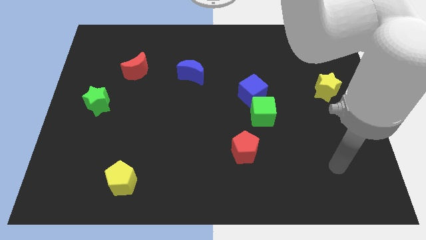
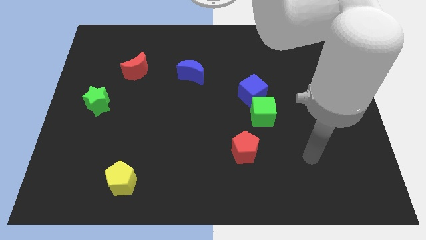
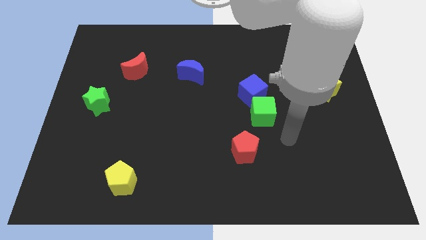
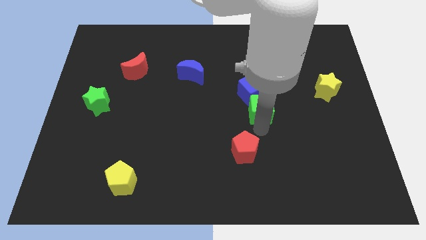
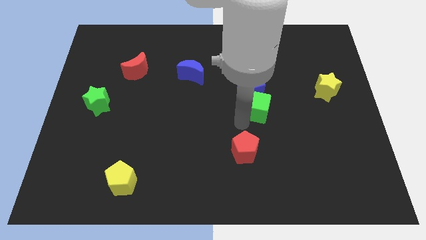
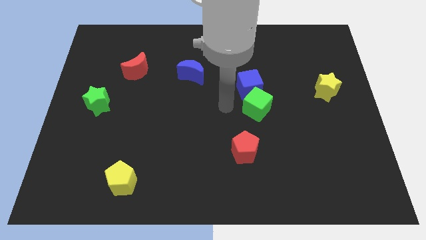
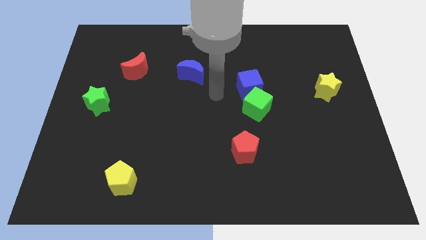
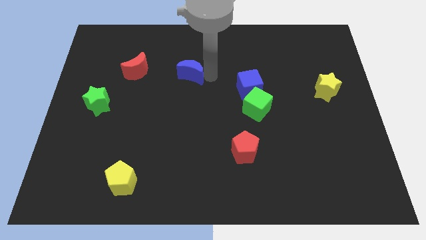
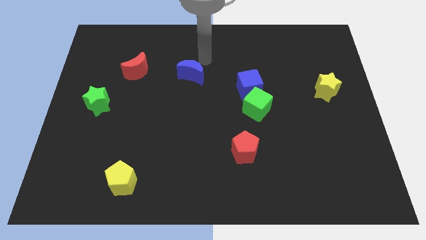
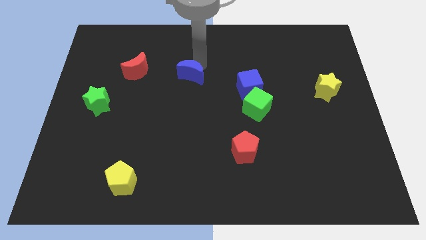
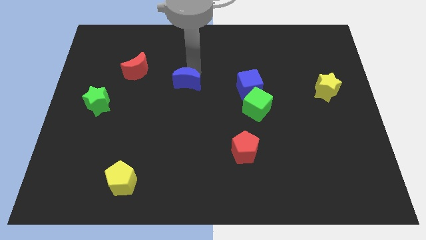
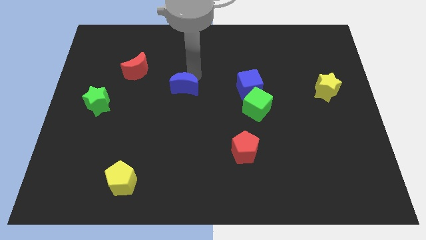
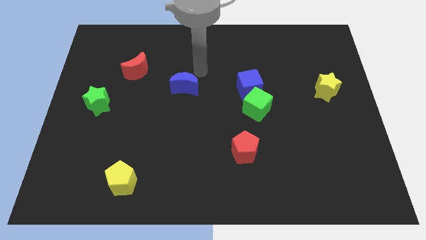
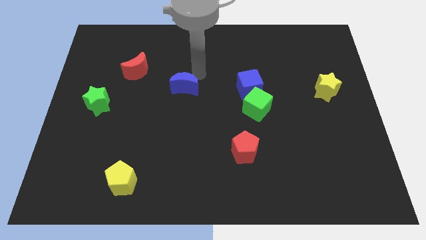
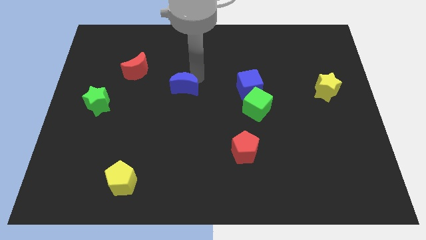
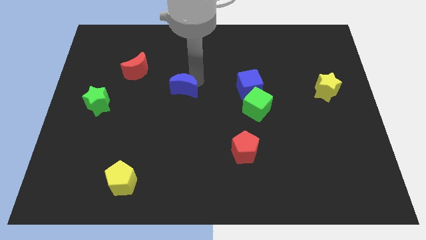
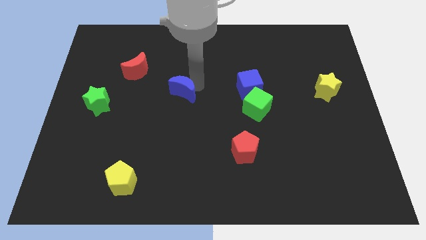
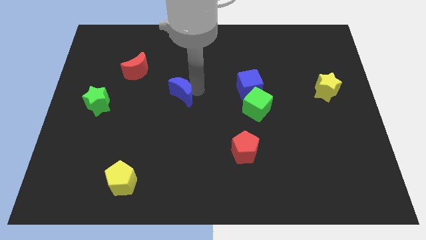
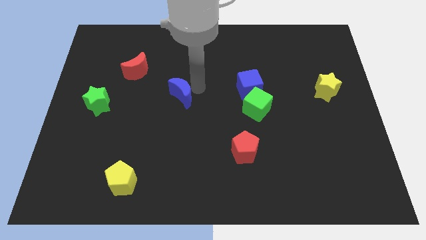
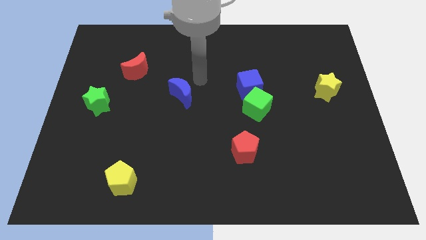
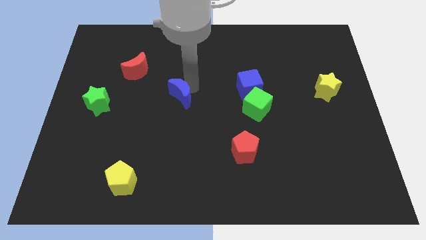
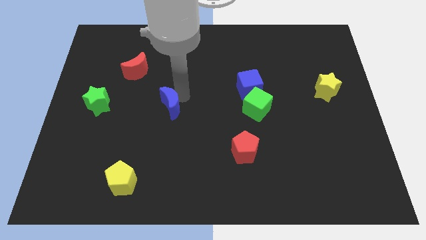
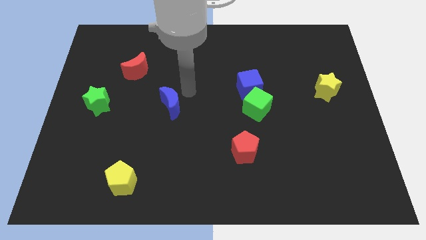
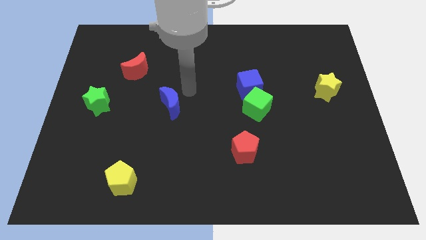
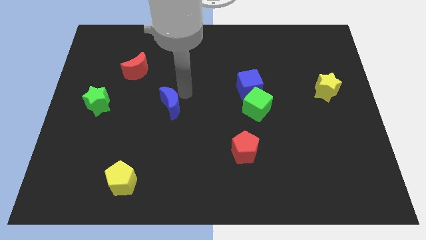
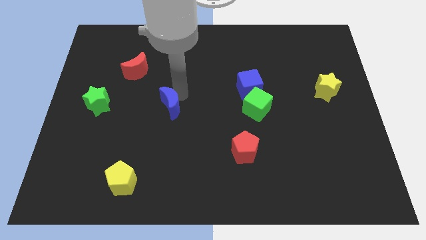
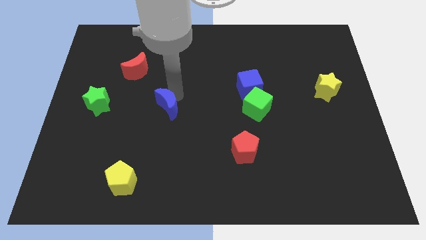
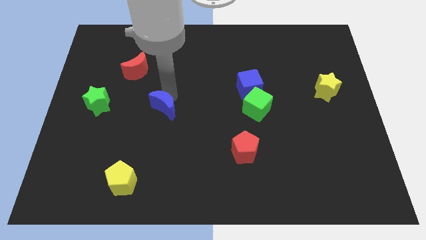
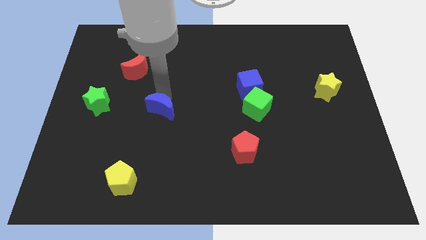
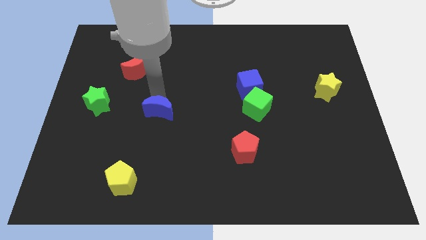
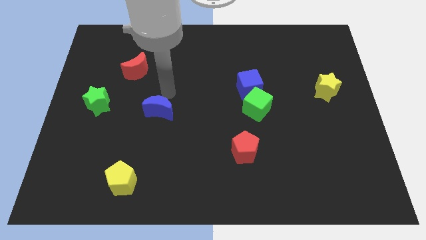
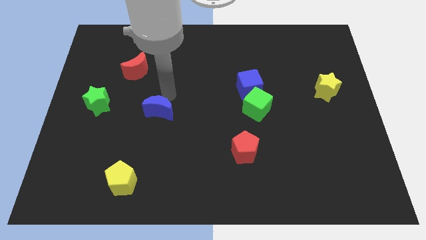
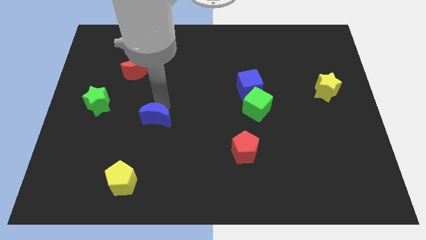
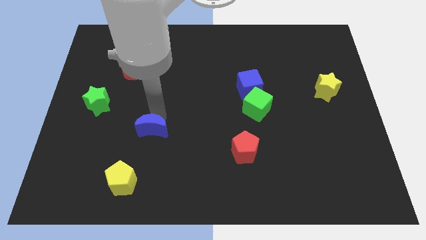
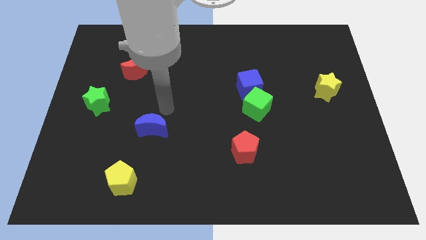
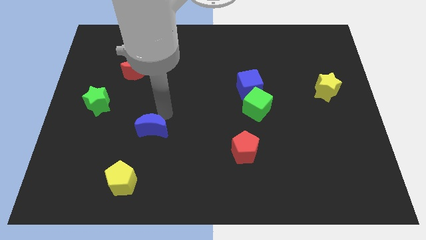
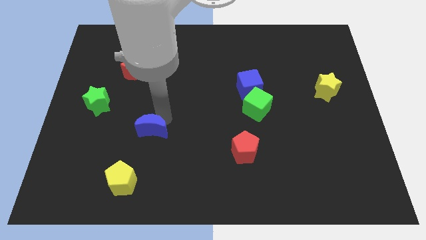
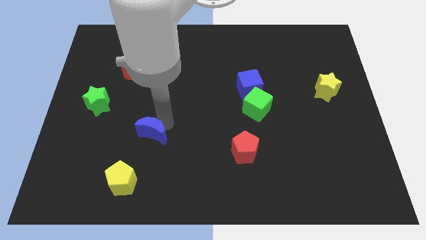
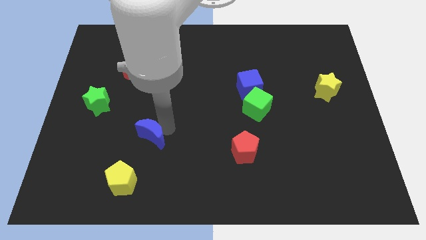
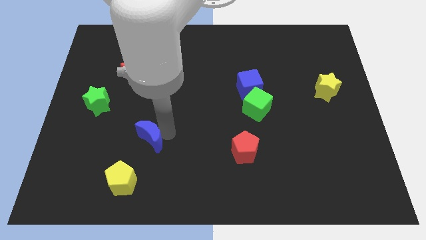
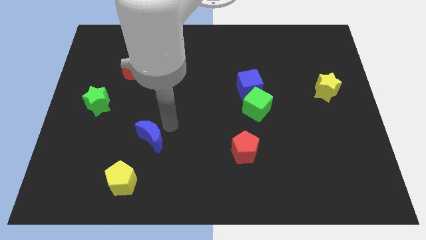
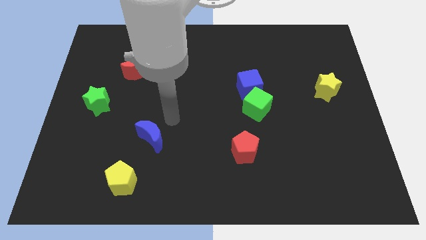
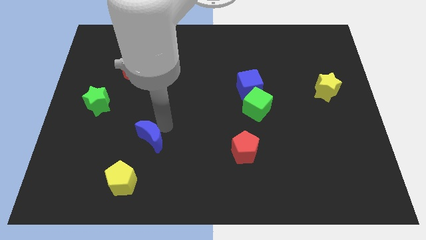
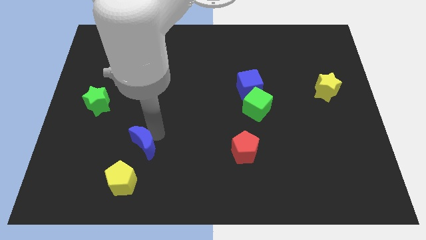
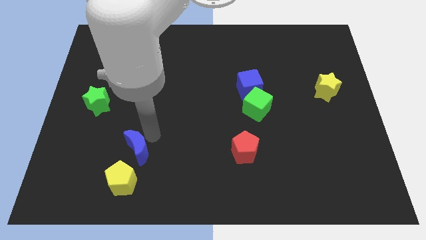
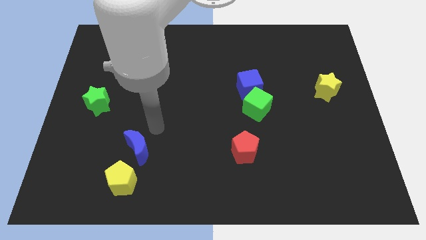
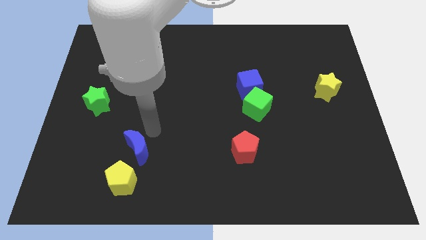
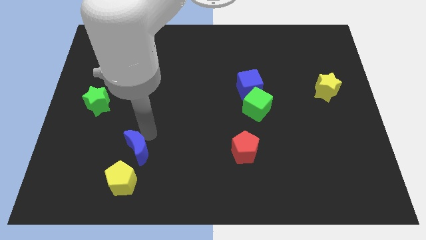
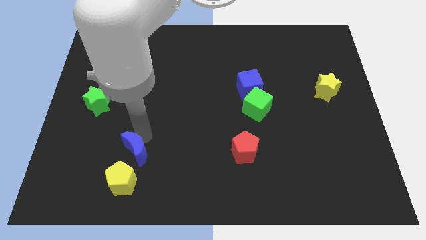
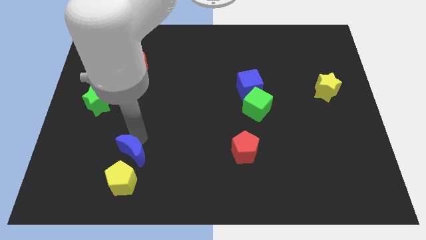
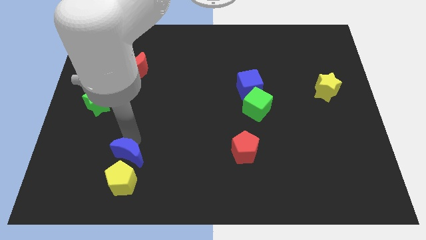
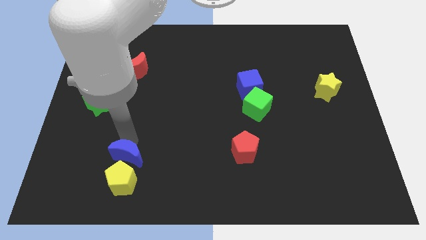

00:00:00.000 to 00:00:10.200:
move the blue moon next to the yellow pentagon

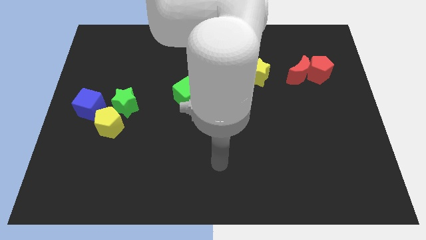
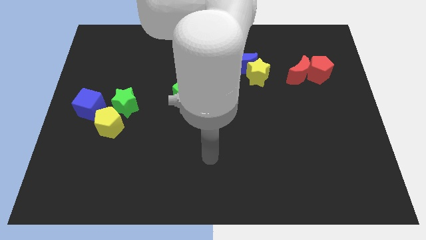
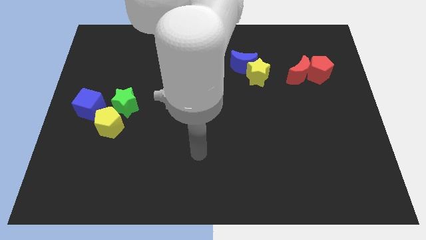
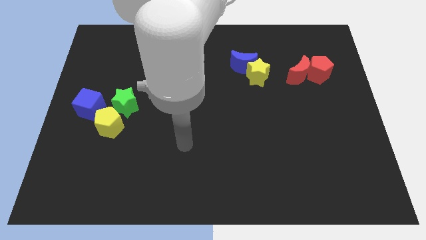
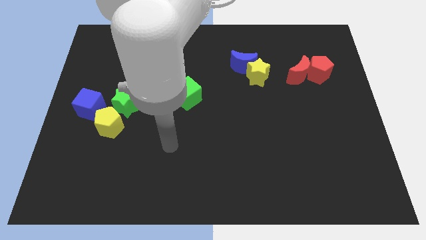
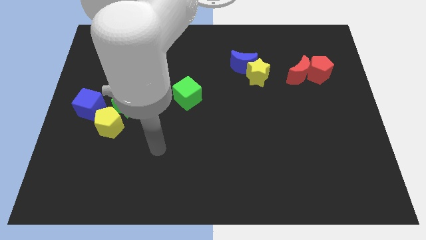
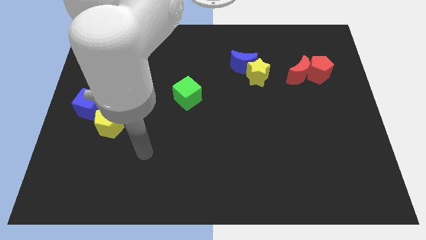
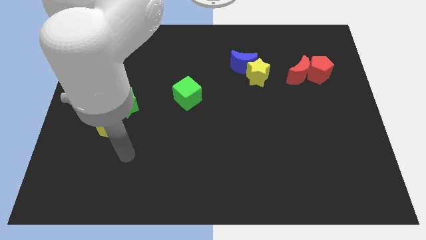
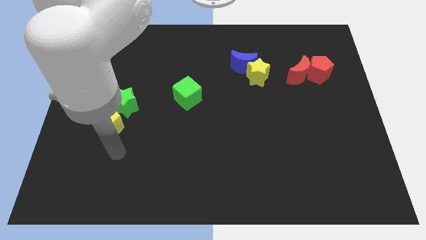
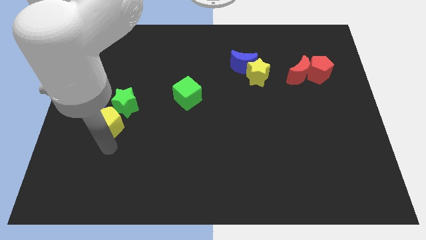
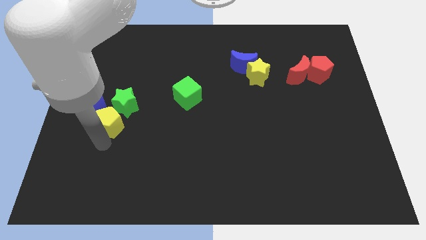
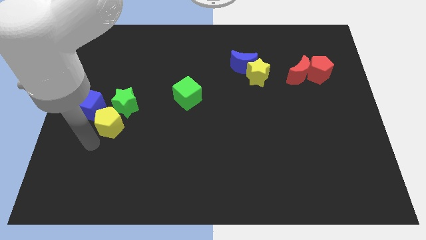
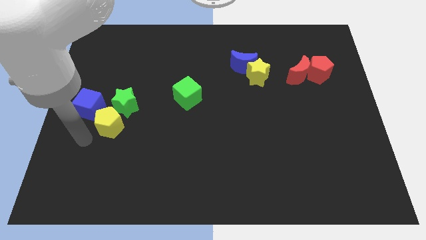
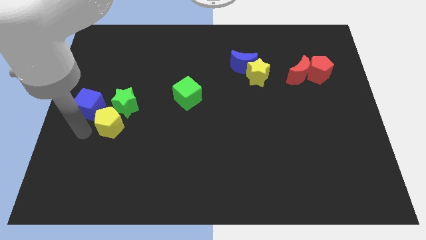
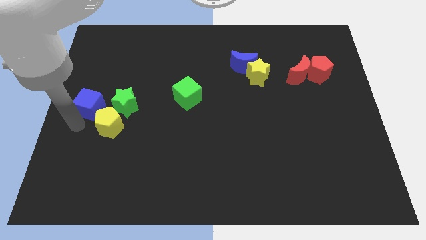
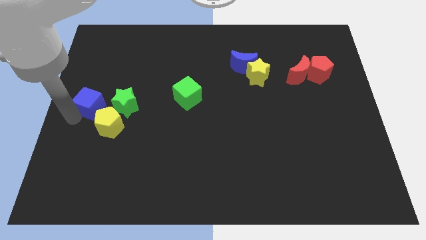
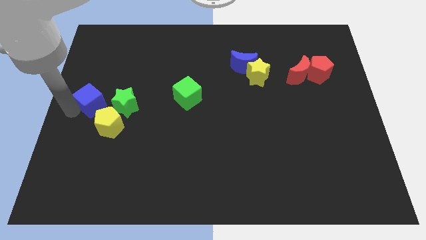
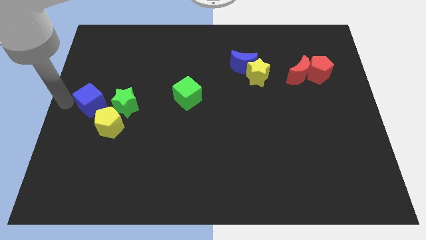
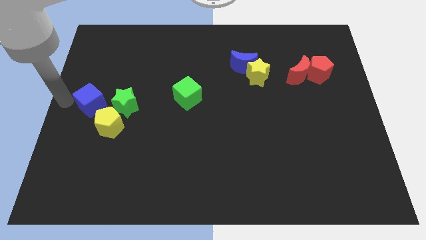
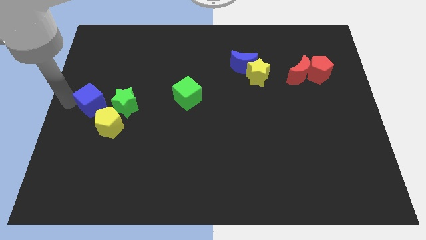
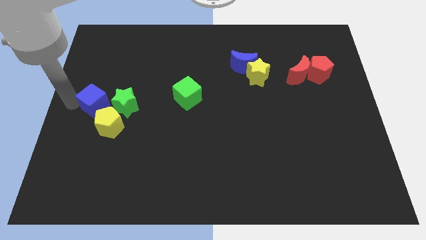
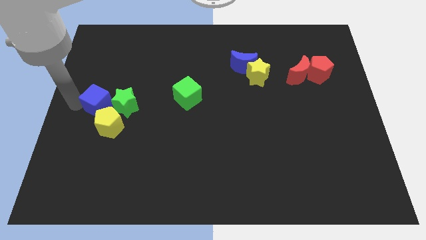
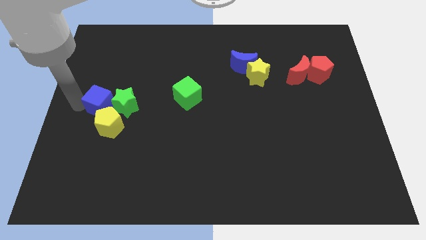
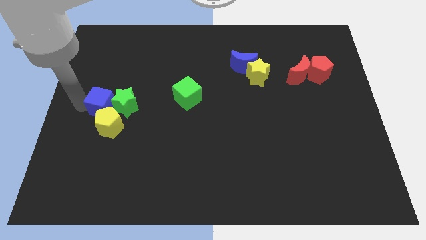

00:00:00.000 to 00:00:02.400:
slide the blue cube towards the green star

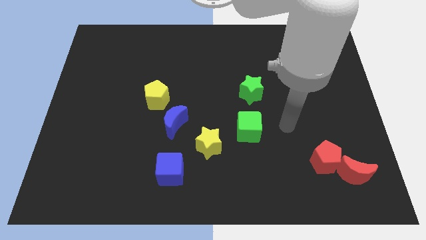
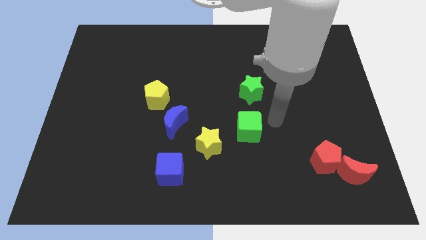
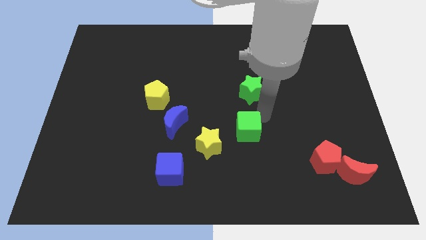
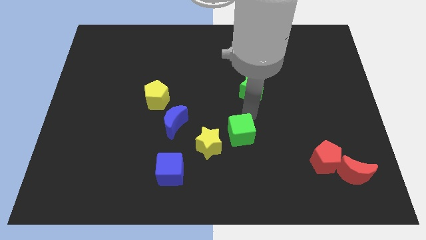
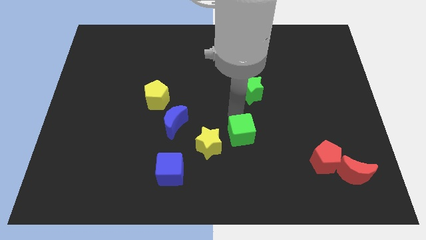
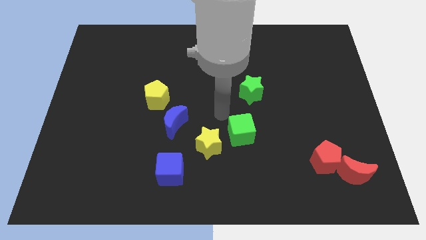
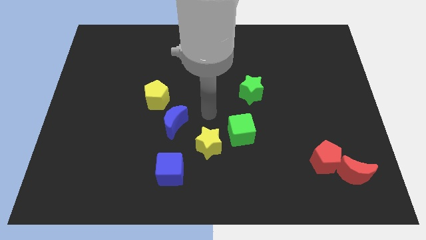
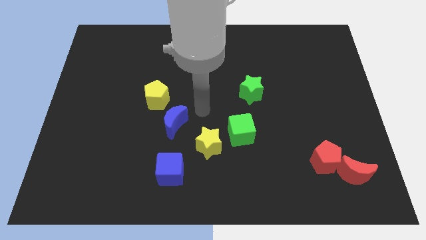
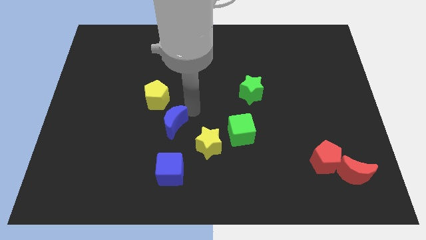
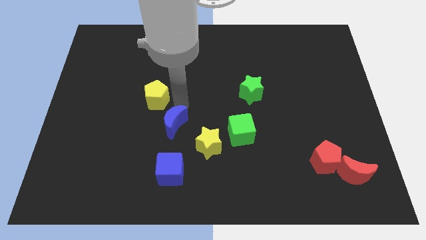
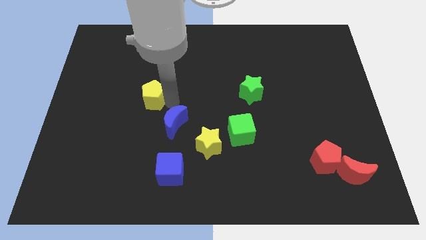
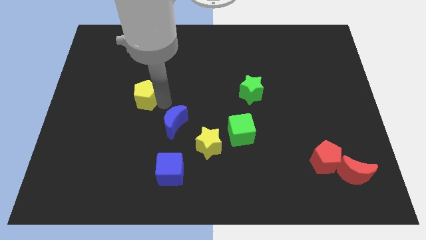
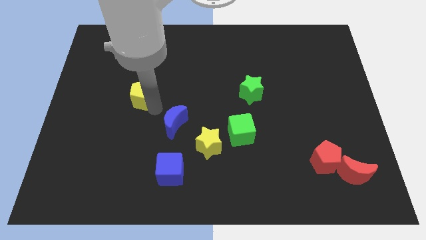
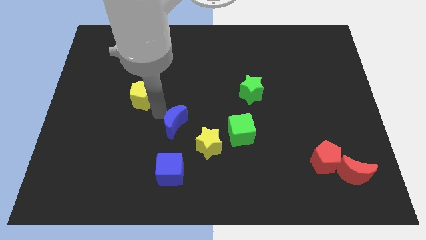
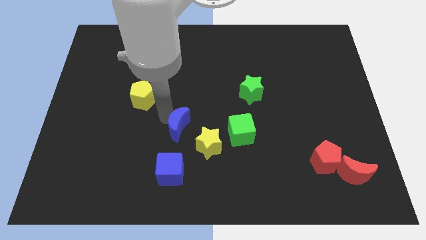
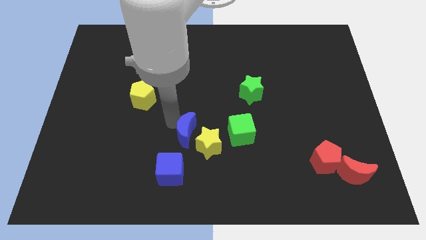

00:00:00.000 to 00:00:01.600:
push the blue moon close to the yellow star
